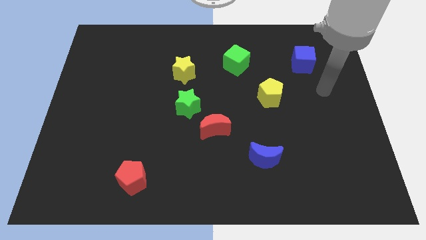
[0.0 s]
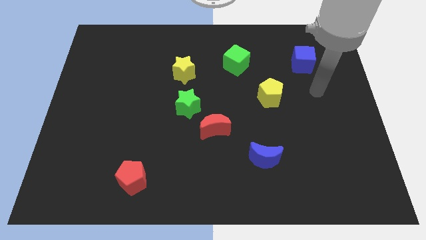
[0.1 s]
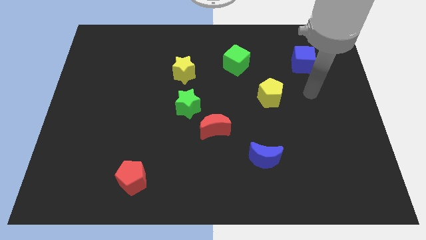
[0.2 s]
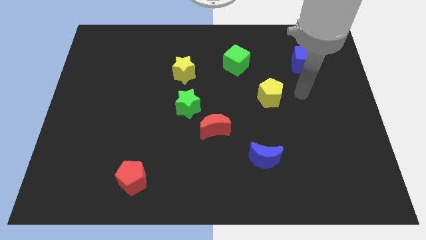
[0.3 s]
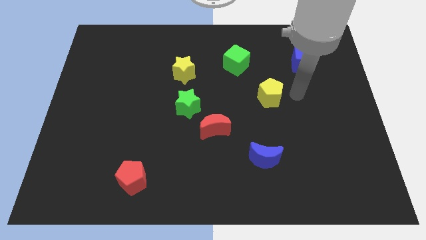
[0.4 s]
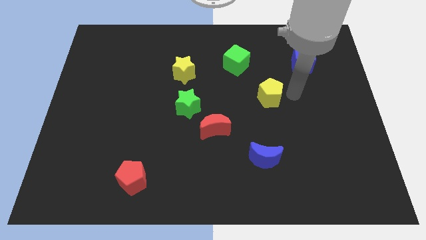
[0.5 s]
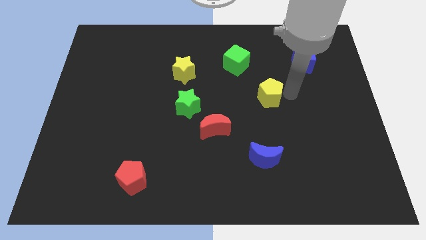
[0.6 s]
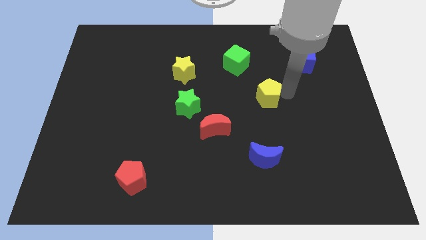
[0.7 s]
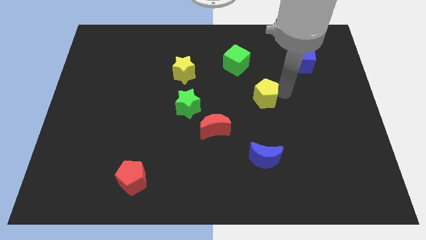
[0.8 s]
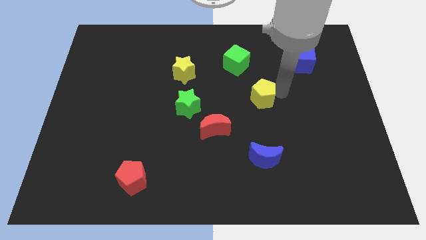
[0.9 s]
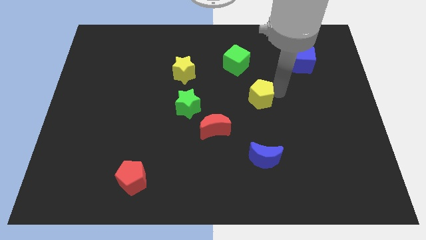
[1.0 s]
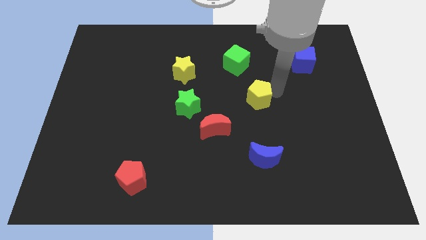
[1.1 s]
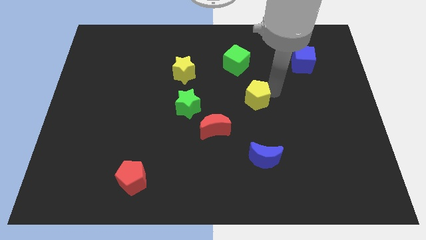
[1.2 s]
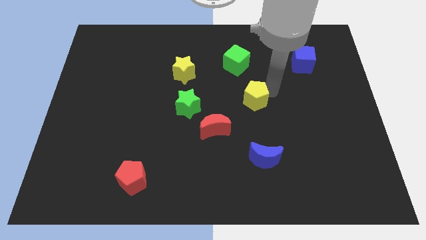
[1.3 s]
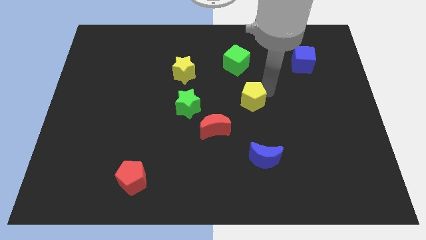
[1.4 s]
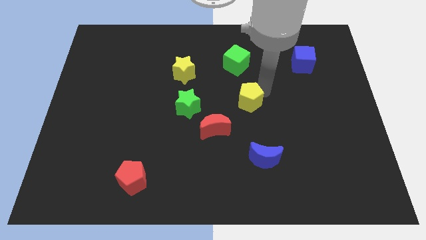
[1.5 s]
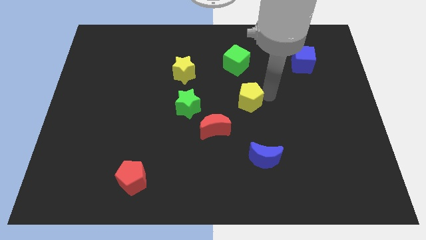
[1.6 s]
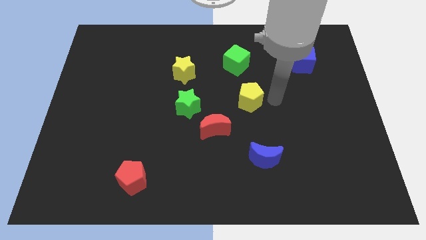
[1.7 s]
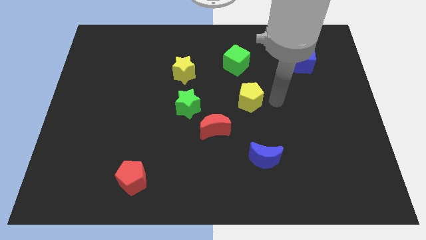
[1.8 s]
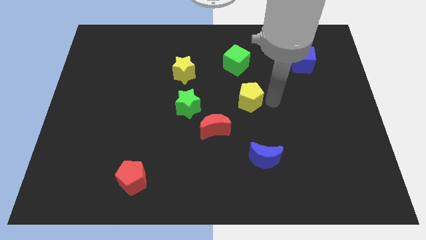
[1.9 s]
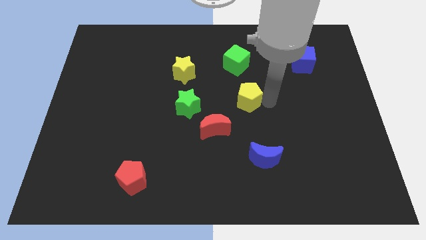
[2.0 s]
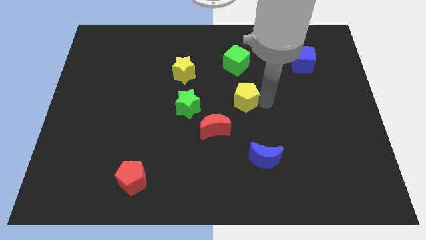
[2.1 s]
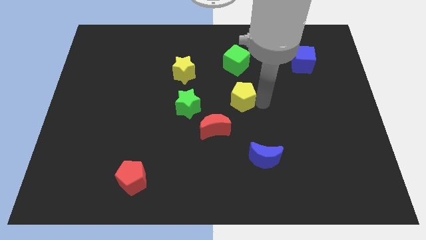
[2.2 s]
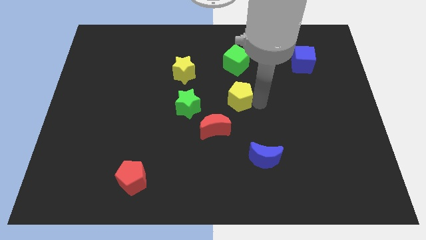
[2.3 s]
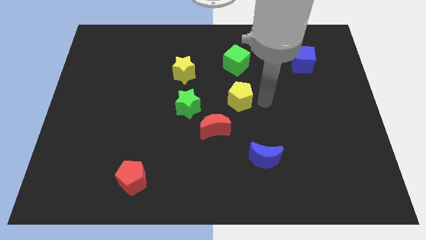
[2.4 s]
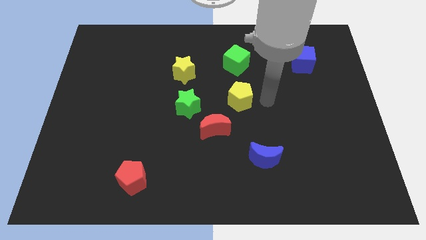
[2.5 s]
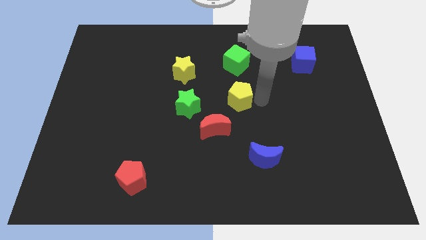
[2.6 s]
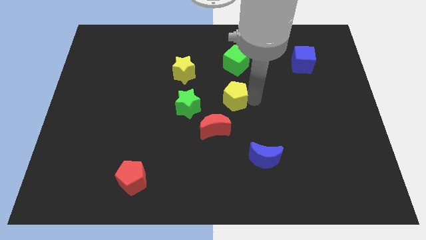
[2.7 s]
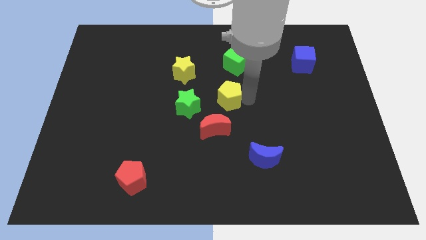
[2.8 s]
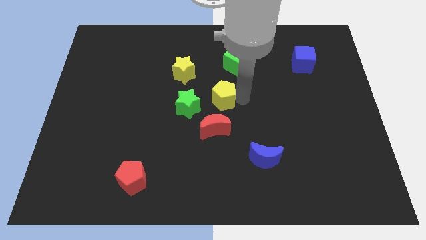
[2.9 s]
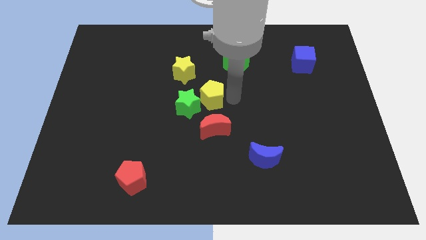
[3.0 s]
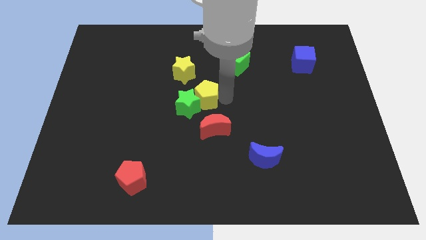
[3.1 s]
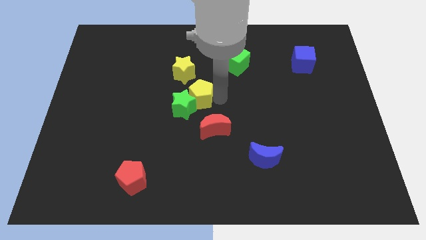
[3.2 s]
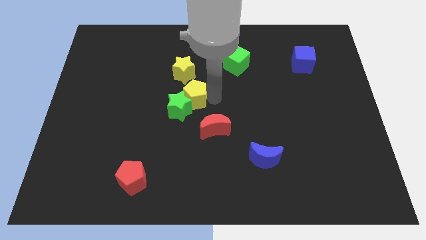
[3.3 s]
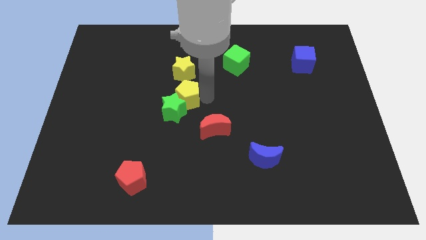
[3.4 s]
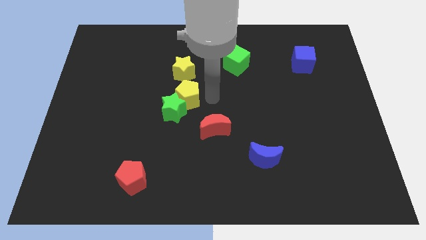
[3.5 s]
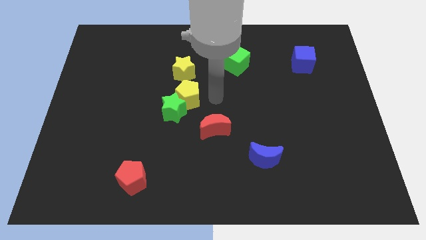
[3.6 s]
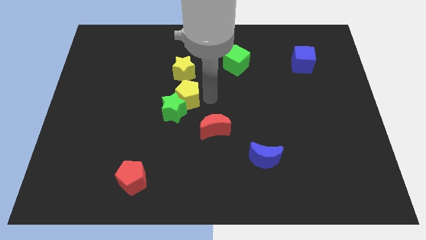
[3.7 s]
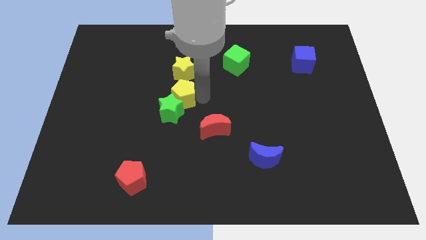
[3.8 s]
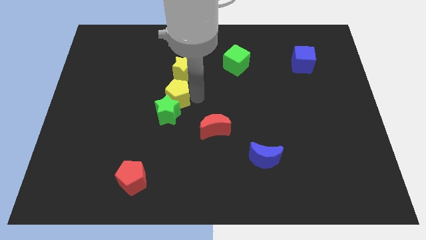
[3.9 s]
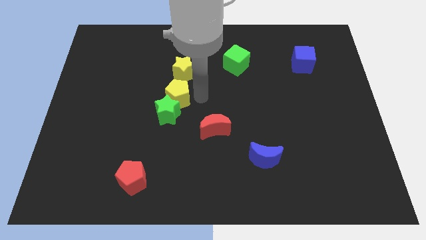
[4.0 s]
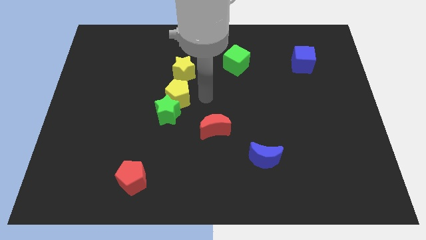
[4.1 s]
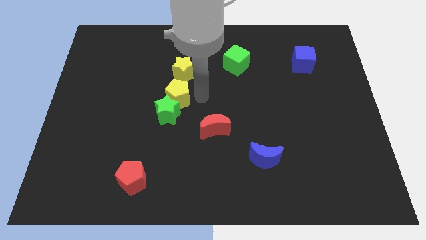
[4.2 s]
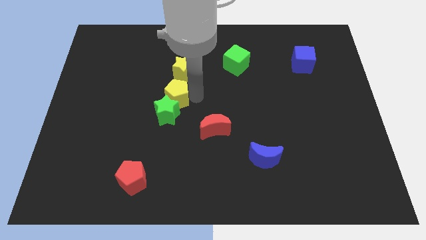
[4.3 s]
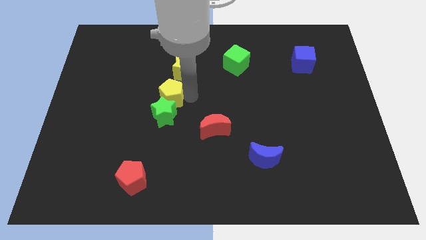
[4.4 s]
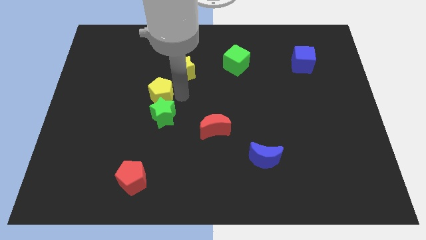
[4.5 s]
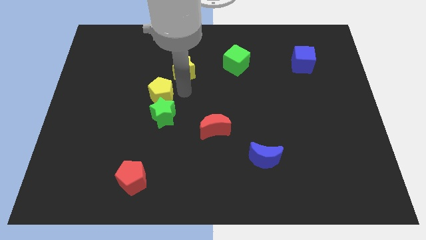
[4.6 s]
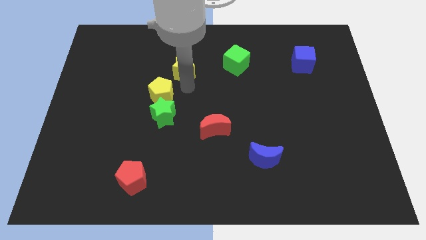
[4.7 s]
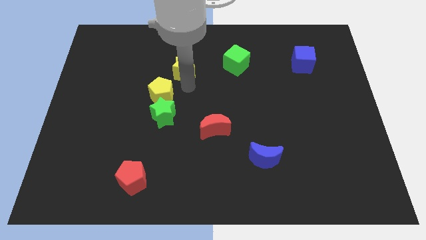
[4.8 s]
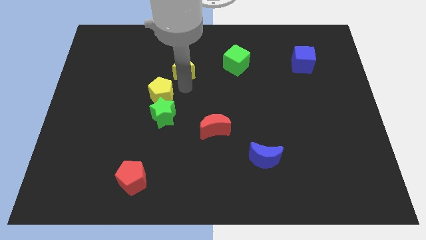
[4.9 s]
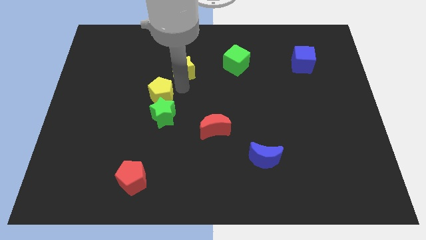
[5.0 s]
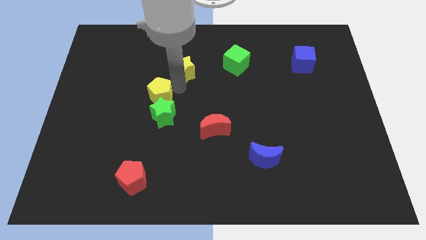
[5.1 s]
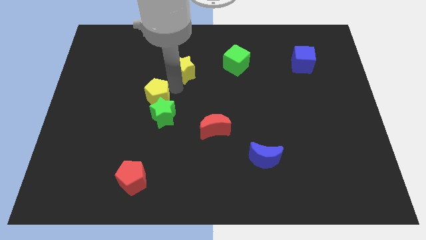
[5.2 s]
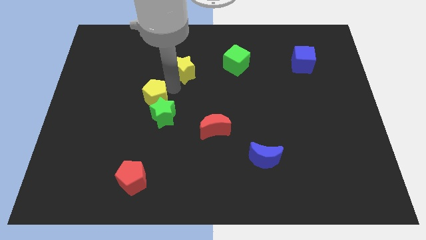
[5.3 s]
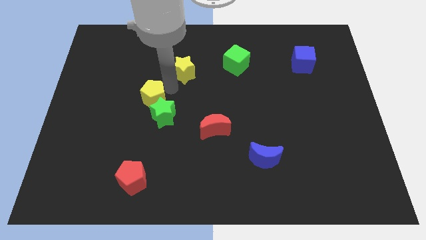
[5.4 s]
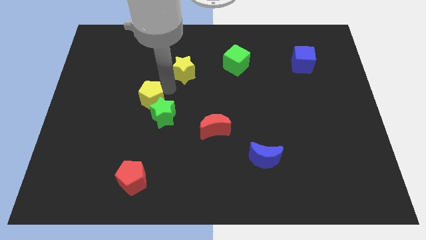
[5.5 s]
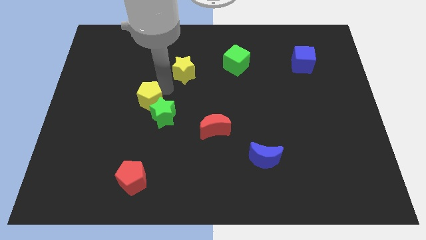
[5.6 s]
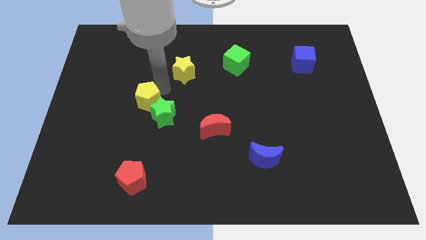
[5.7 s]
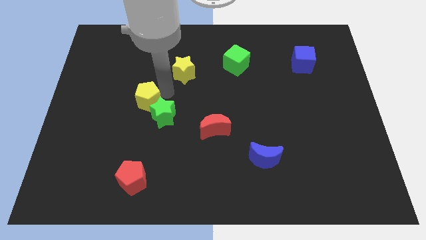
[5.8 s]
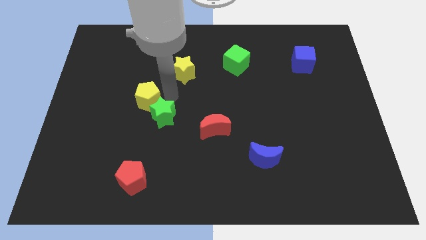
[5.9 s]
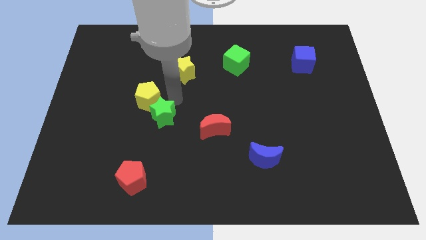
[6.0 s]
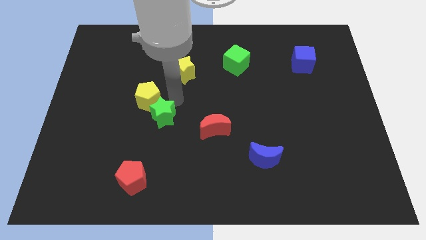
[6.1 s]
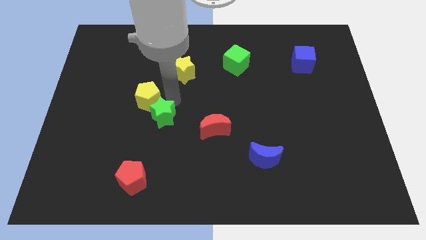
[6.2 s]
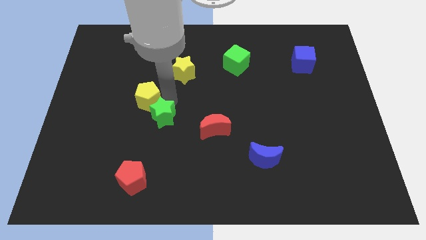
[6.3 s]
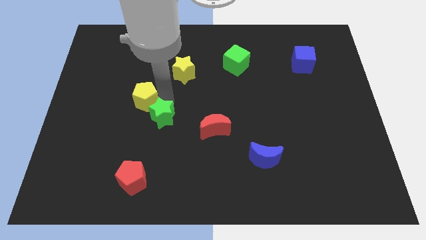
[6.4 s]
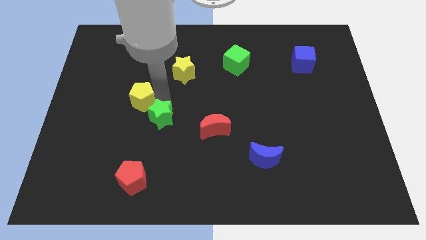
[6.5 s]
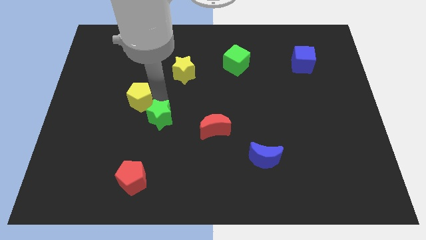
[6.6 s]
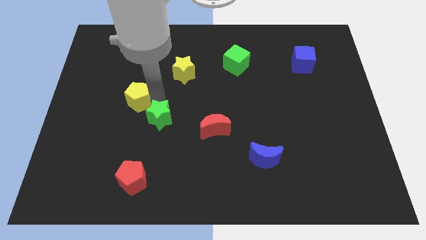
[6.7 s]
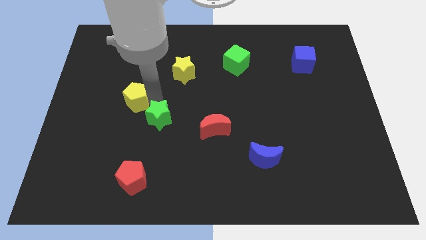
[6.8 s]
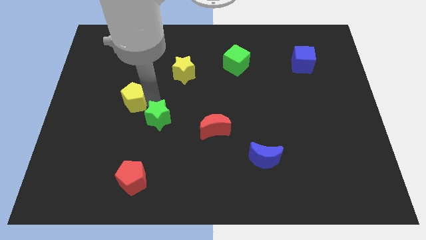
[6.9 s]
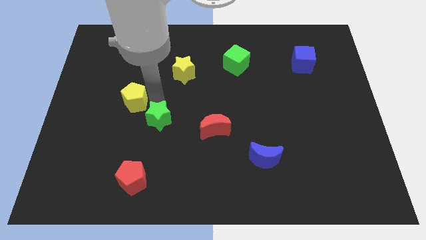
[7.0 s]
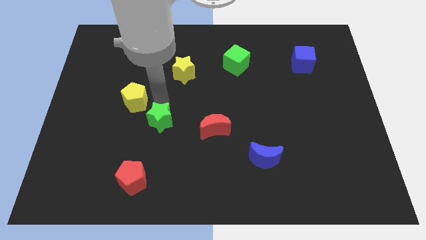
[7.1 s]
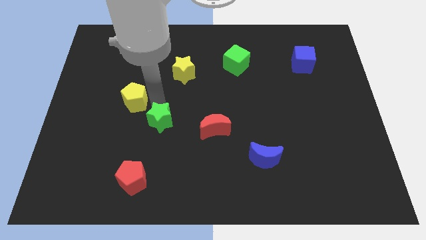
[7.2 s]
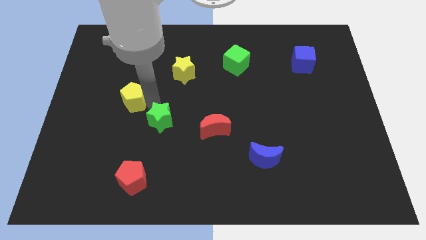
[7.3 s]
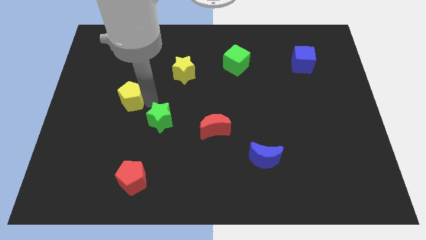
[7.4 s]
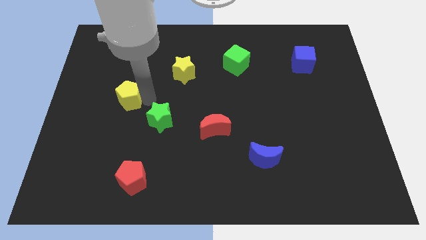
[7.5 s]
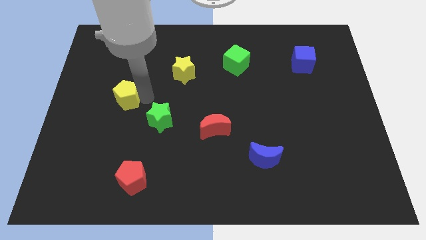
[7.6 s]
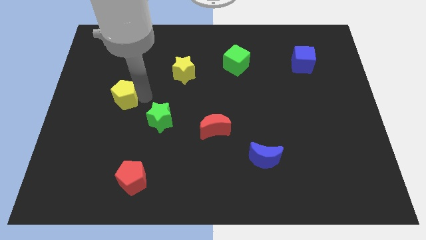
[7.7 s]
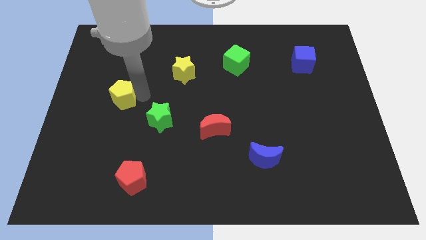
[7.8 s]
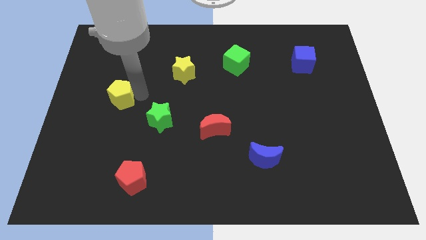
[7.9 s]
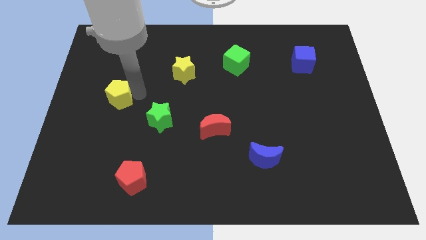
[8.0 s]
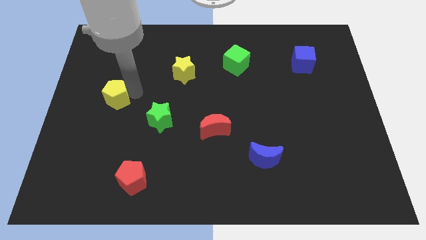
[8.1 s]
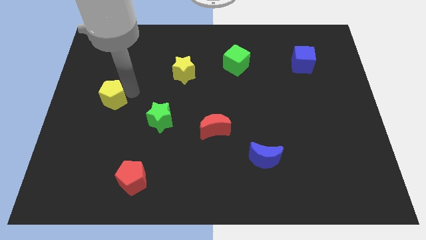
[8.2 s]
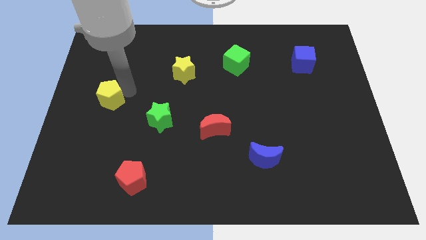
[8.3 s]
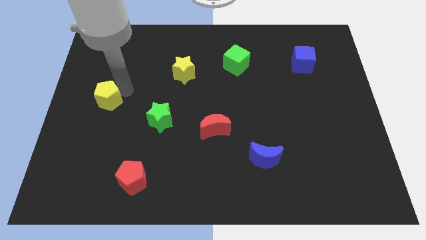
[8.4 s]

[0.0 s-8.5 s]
put the yellow pentagon to the left side
